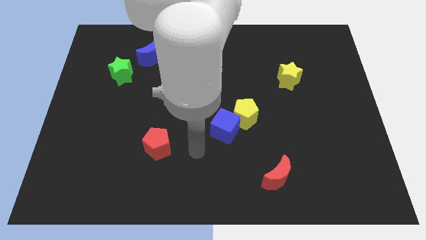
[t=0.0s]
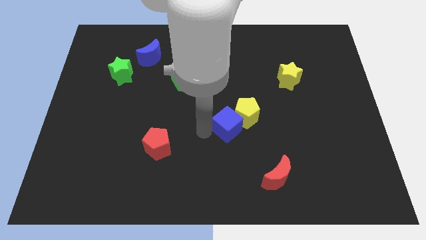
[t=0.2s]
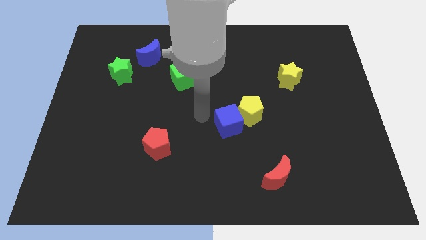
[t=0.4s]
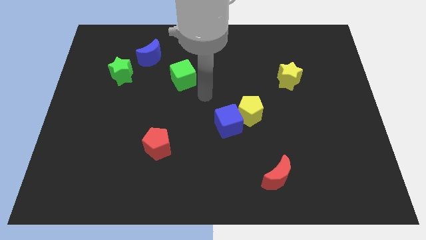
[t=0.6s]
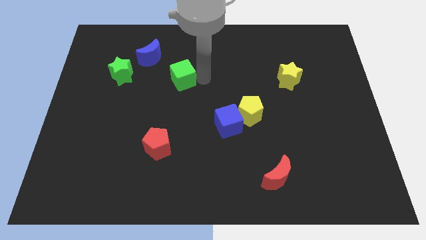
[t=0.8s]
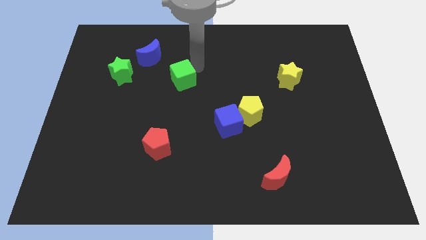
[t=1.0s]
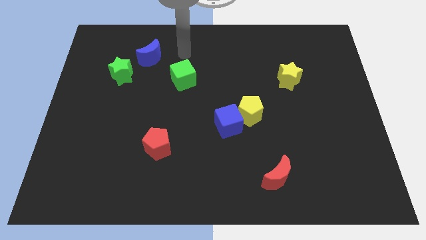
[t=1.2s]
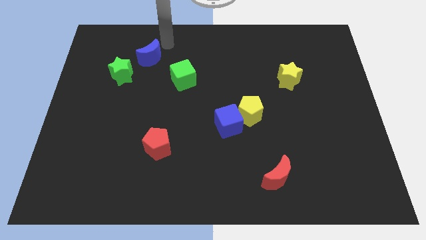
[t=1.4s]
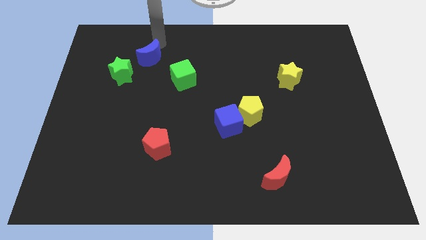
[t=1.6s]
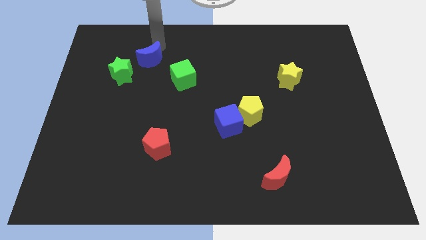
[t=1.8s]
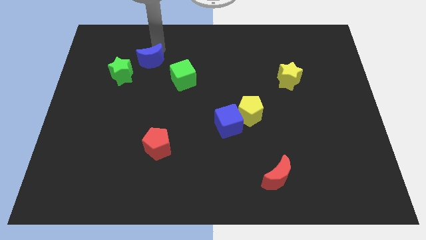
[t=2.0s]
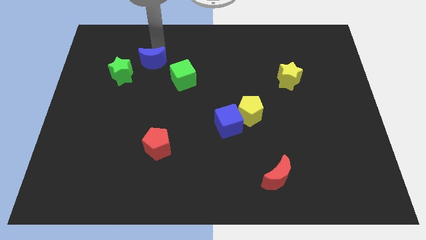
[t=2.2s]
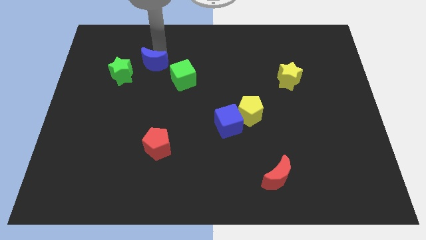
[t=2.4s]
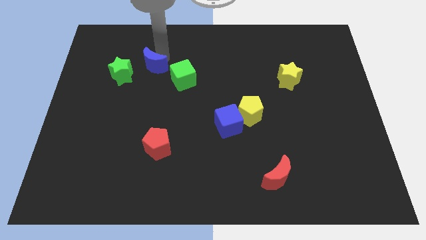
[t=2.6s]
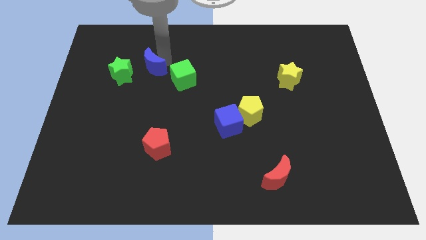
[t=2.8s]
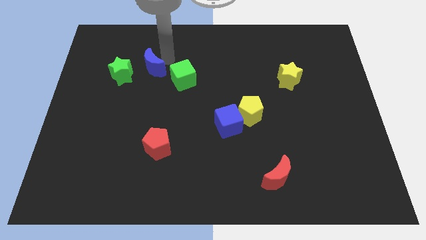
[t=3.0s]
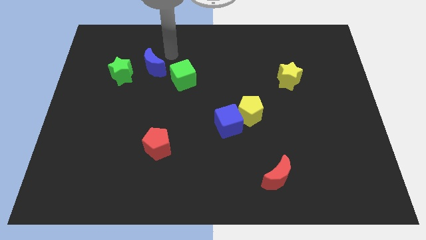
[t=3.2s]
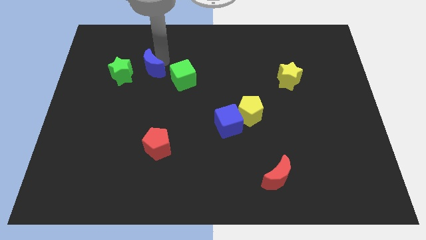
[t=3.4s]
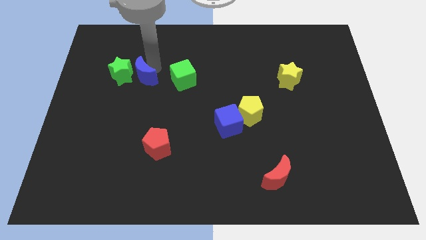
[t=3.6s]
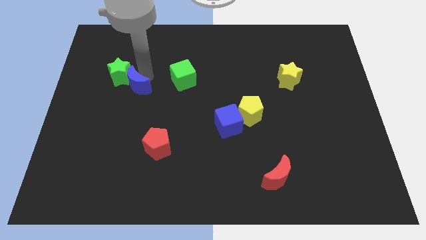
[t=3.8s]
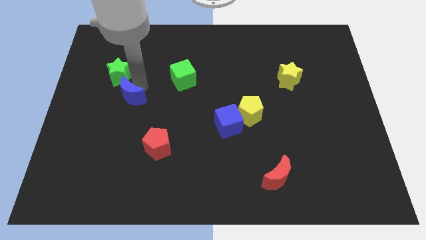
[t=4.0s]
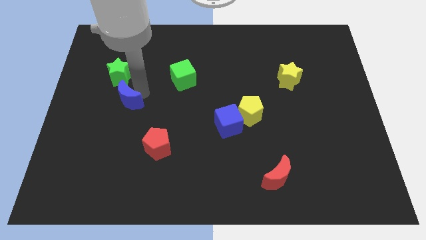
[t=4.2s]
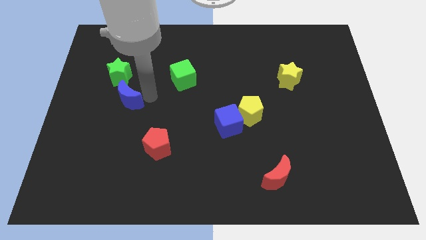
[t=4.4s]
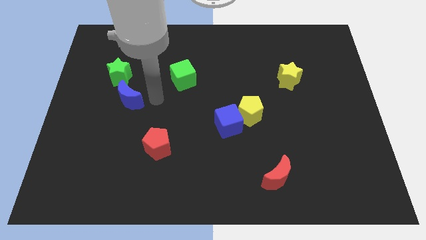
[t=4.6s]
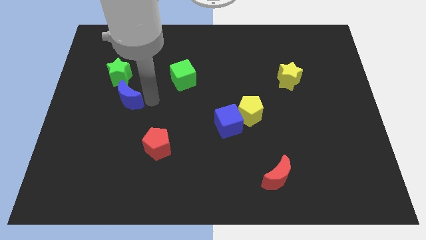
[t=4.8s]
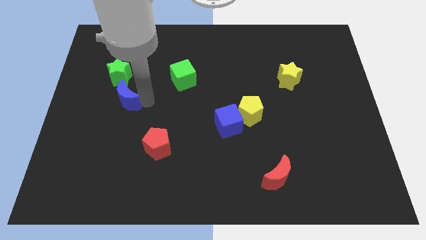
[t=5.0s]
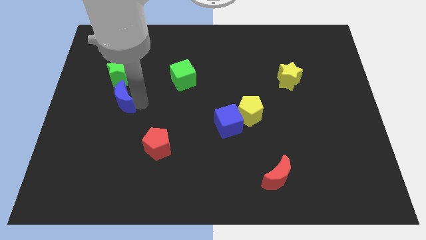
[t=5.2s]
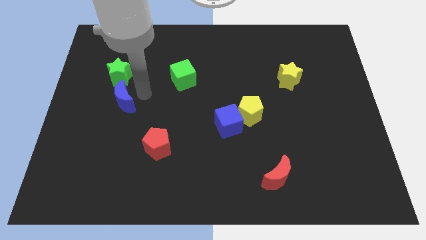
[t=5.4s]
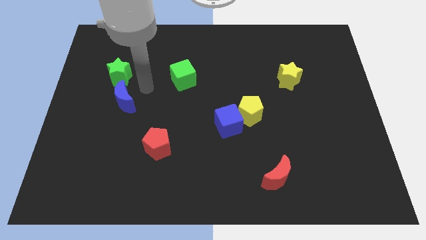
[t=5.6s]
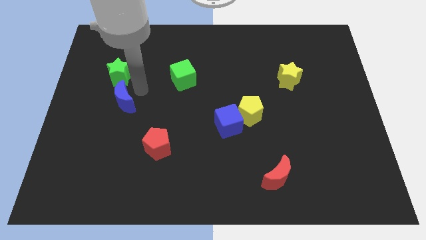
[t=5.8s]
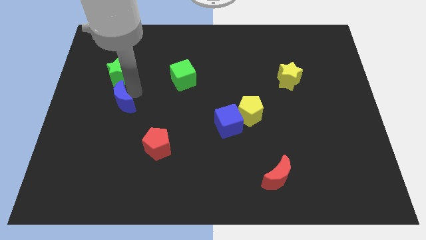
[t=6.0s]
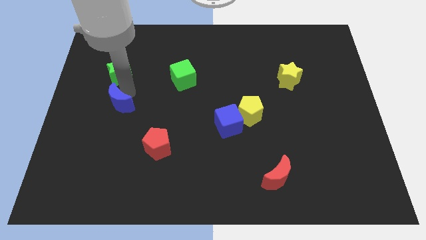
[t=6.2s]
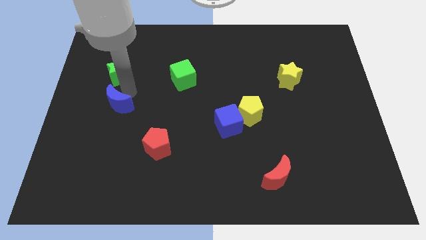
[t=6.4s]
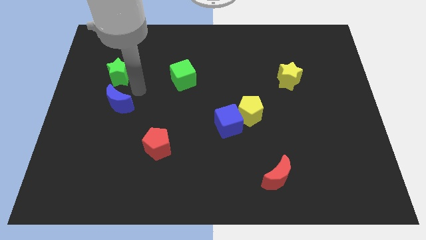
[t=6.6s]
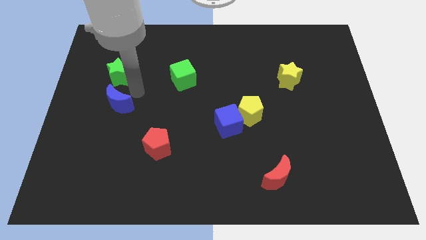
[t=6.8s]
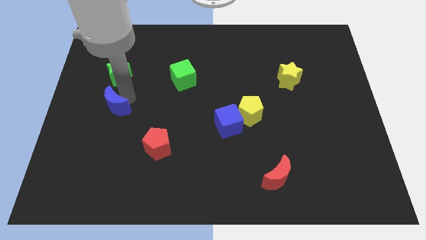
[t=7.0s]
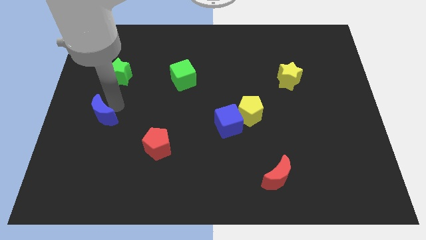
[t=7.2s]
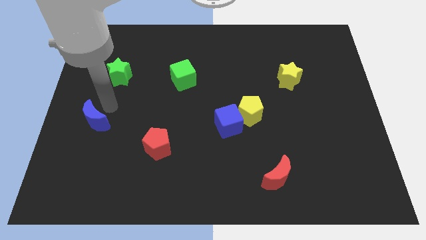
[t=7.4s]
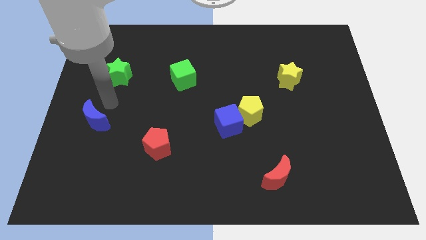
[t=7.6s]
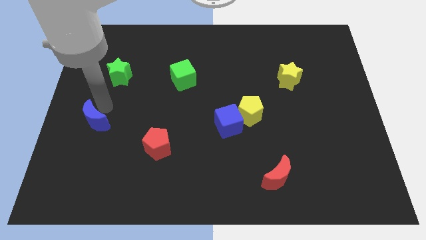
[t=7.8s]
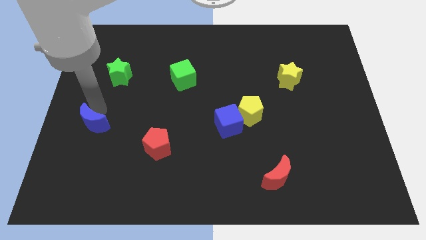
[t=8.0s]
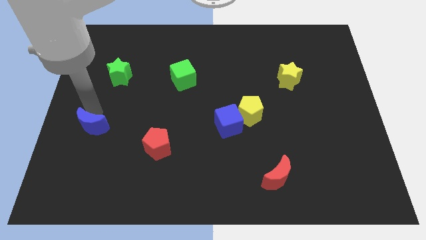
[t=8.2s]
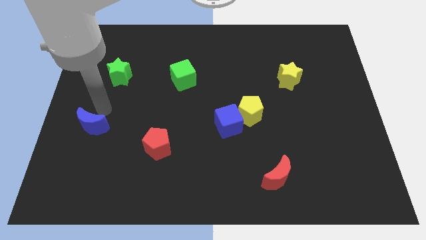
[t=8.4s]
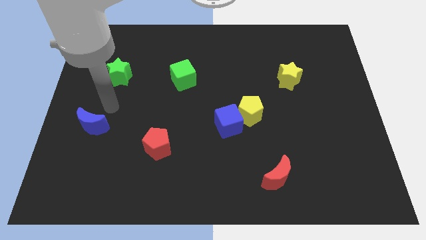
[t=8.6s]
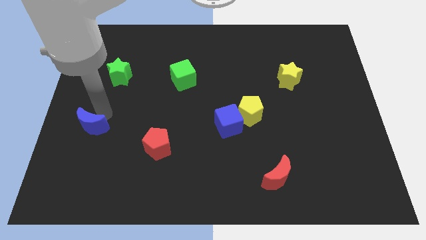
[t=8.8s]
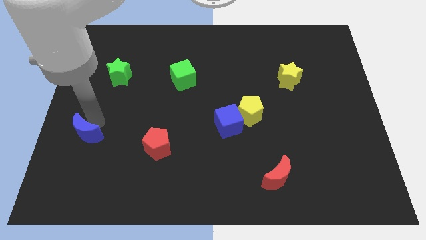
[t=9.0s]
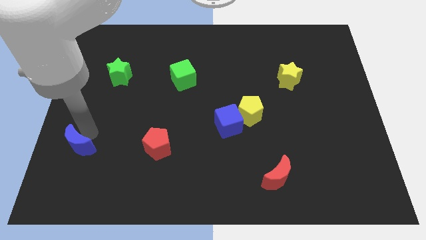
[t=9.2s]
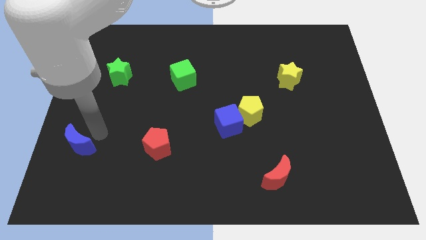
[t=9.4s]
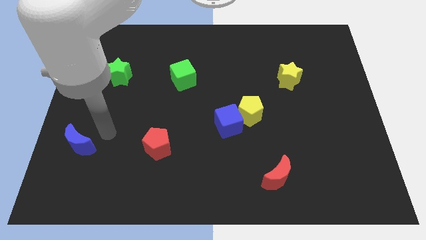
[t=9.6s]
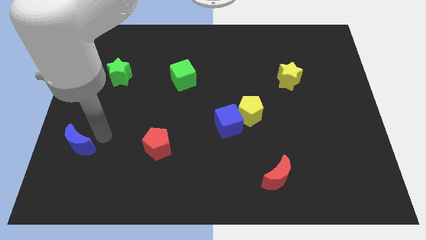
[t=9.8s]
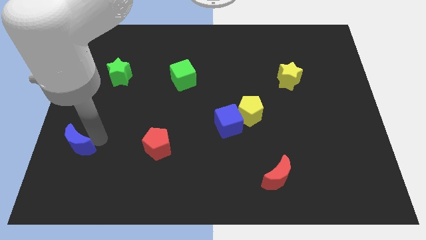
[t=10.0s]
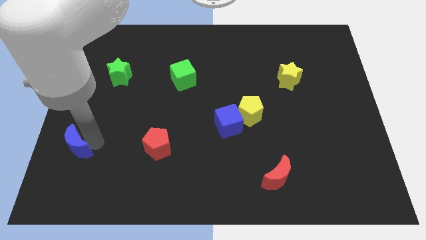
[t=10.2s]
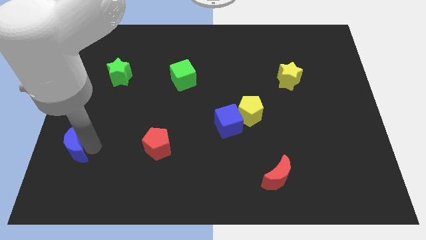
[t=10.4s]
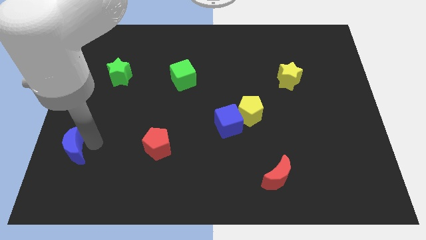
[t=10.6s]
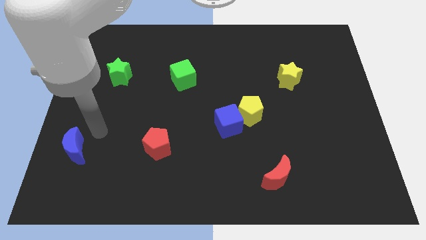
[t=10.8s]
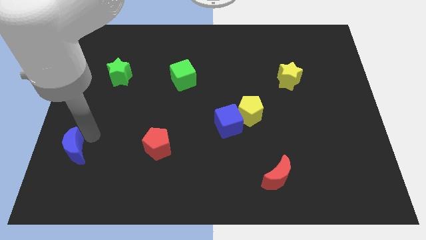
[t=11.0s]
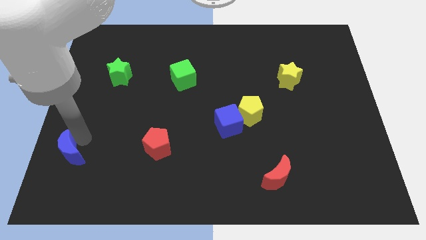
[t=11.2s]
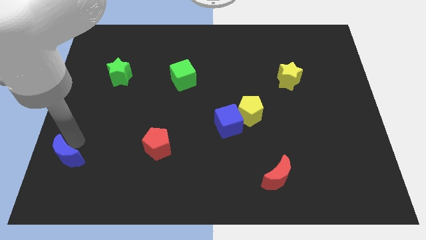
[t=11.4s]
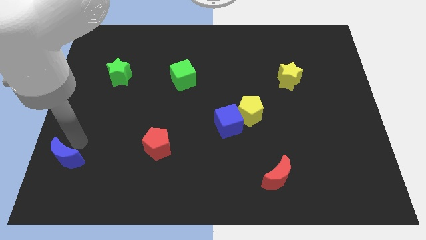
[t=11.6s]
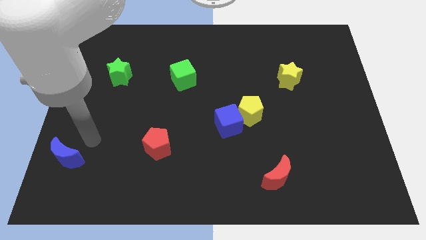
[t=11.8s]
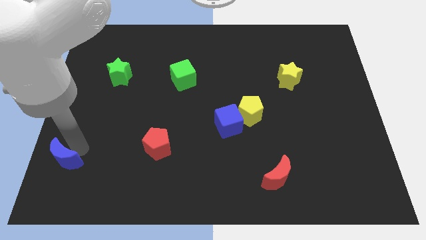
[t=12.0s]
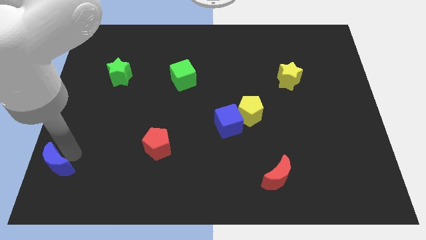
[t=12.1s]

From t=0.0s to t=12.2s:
slide the blue moon to the bottom left corner

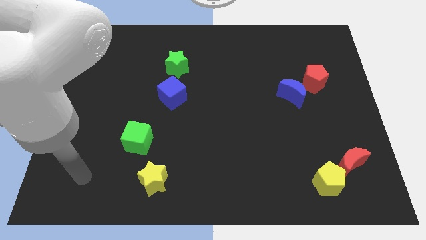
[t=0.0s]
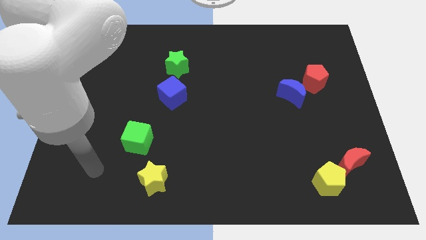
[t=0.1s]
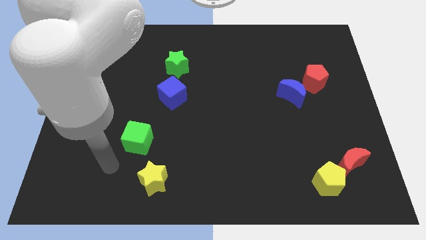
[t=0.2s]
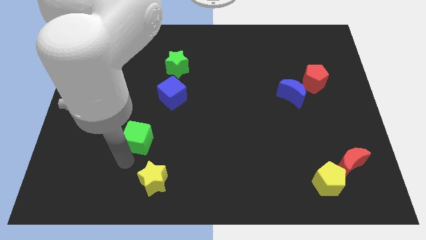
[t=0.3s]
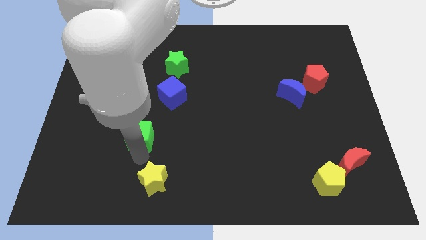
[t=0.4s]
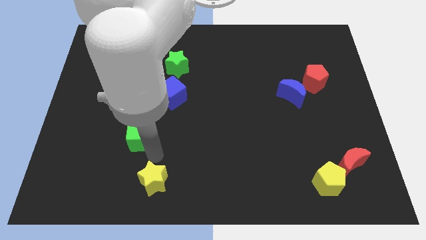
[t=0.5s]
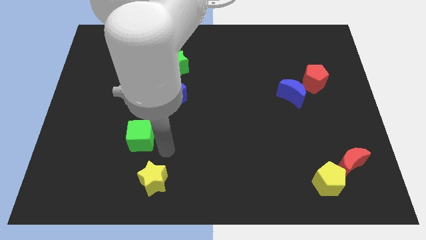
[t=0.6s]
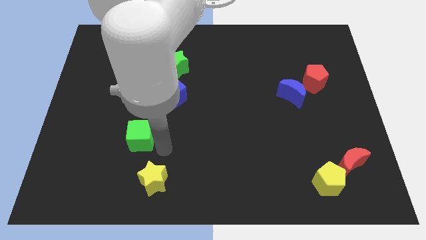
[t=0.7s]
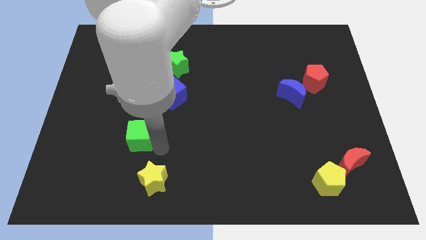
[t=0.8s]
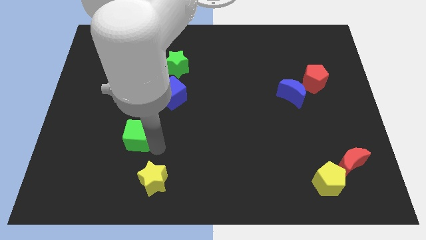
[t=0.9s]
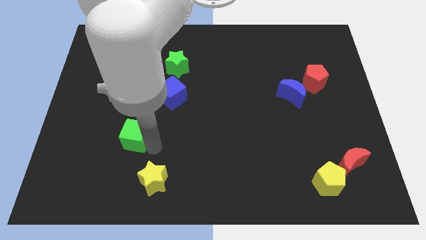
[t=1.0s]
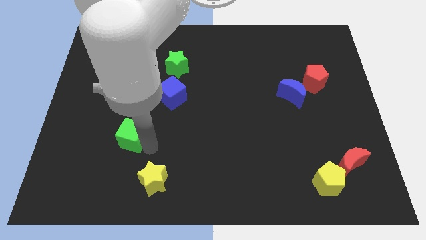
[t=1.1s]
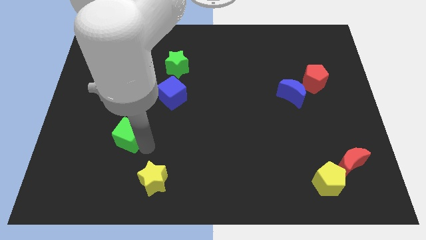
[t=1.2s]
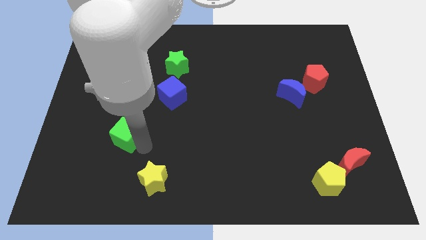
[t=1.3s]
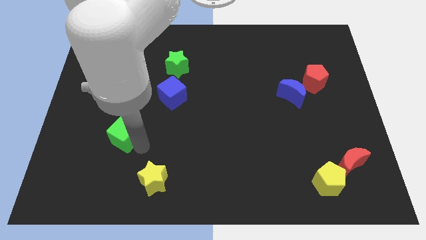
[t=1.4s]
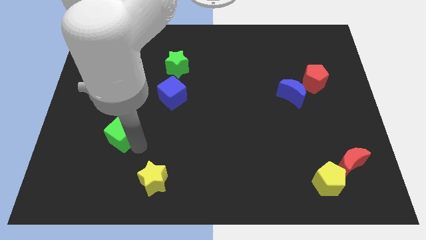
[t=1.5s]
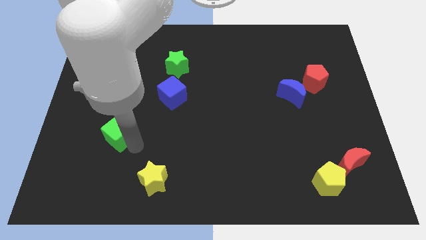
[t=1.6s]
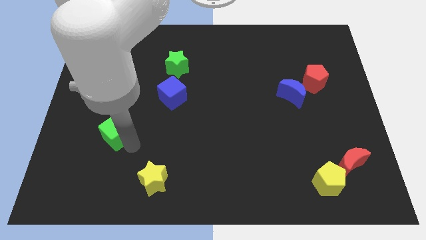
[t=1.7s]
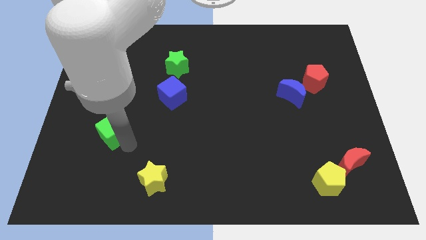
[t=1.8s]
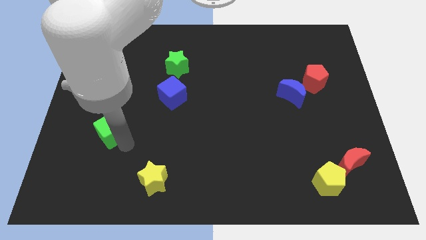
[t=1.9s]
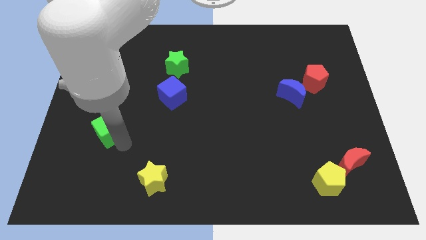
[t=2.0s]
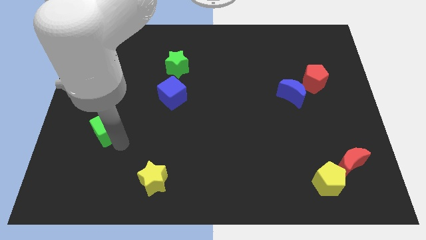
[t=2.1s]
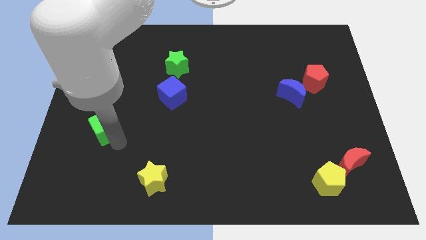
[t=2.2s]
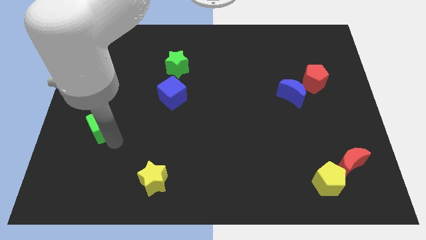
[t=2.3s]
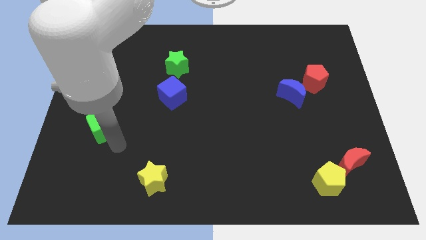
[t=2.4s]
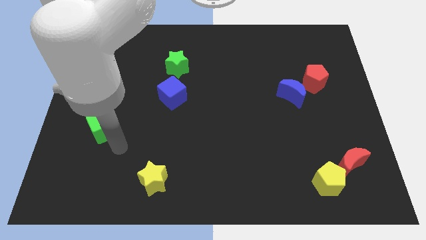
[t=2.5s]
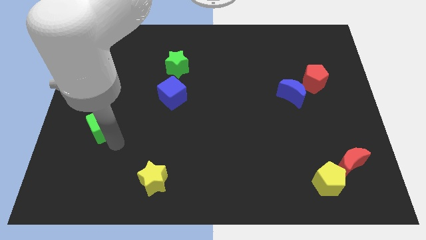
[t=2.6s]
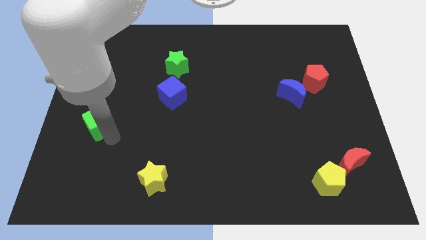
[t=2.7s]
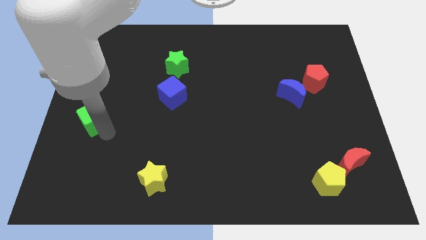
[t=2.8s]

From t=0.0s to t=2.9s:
put the green cube to the left side
